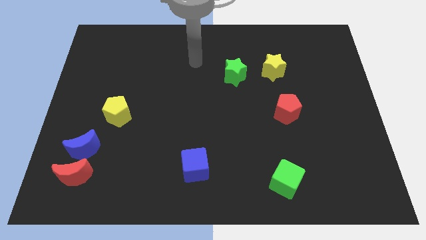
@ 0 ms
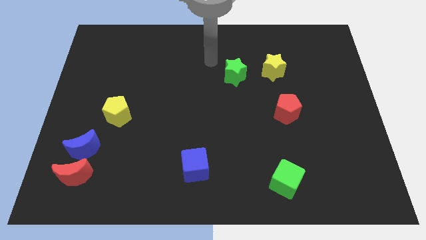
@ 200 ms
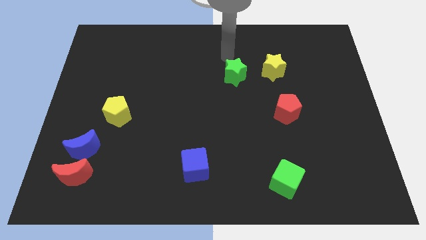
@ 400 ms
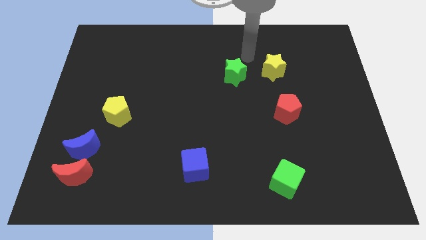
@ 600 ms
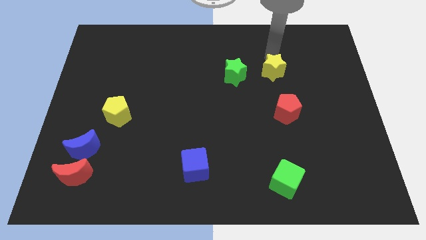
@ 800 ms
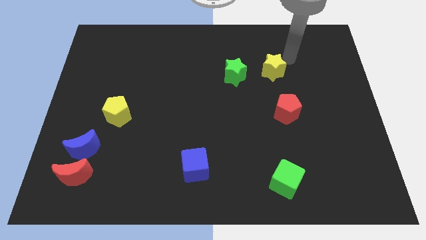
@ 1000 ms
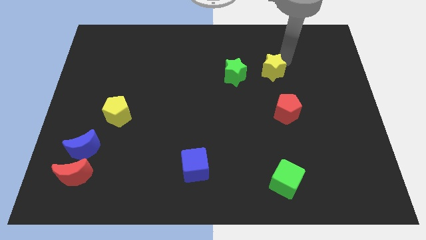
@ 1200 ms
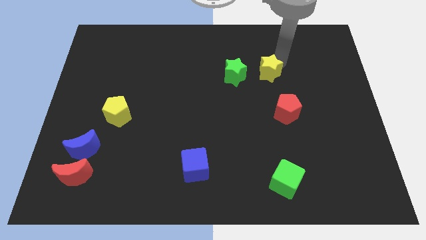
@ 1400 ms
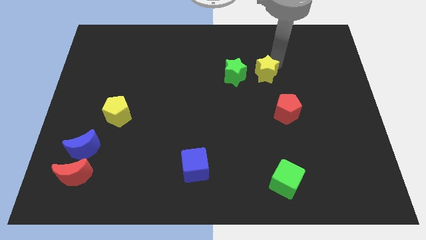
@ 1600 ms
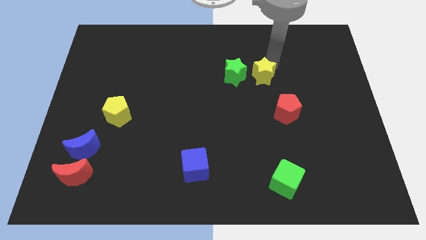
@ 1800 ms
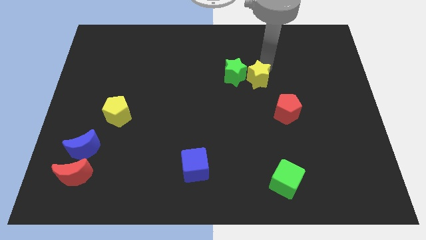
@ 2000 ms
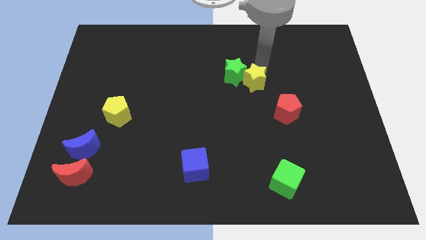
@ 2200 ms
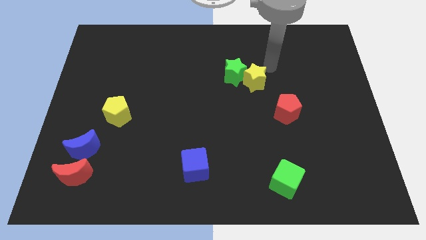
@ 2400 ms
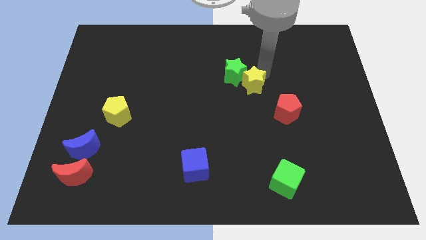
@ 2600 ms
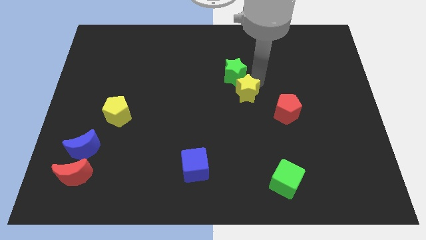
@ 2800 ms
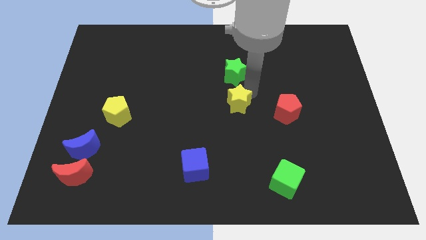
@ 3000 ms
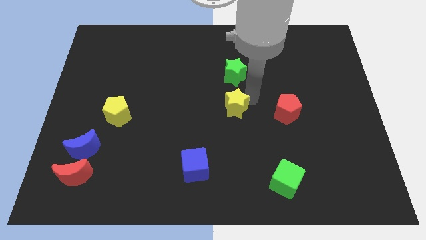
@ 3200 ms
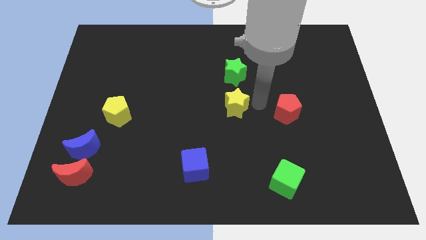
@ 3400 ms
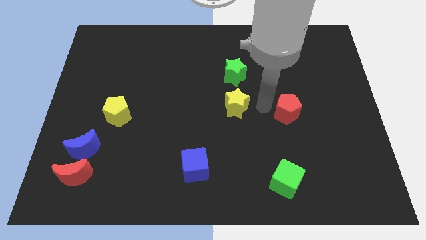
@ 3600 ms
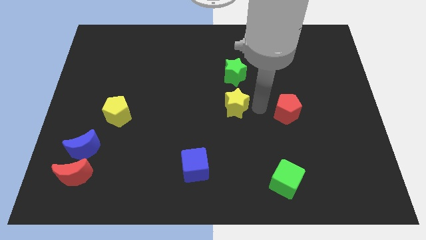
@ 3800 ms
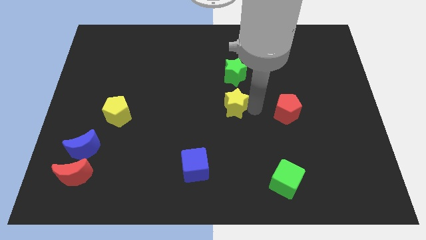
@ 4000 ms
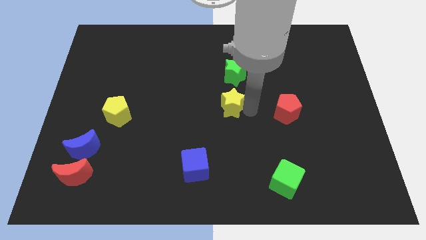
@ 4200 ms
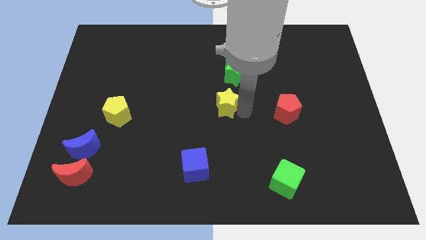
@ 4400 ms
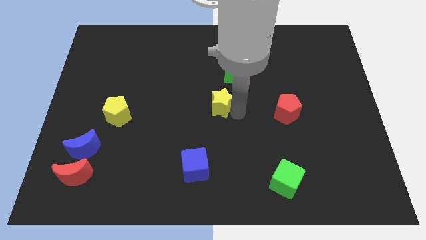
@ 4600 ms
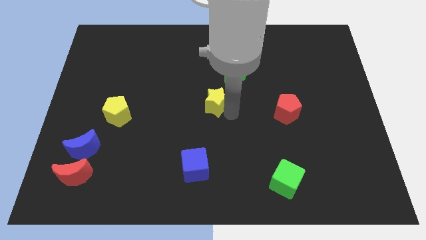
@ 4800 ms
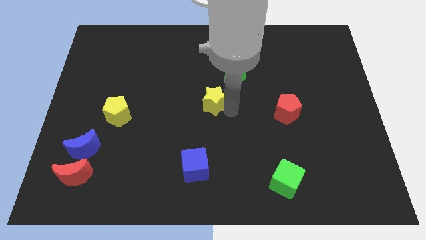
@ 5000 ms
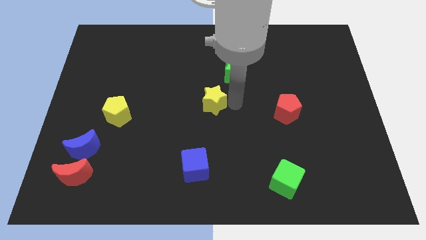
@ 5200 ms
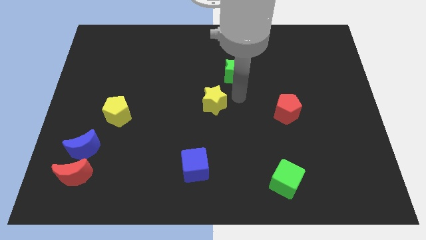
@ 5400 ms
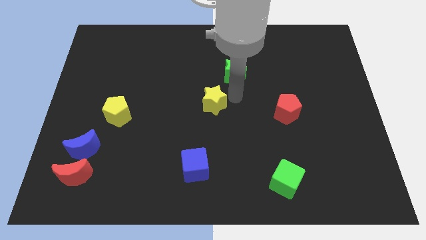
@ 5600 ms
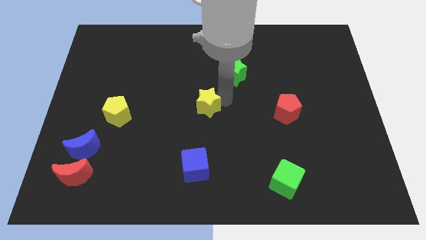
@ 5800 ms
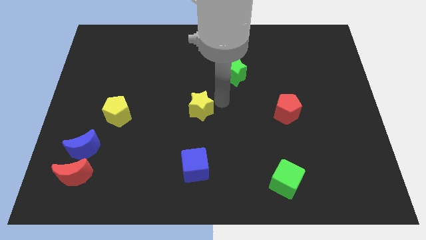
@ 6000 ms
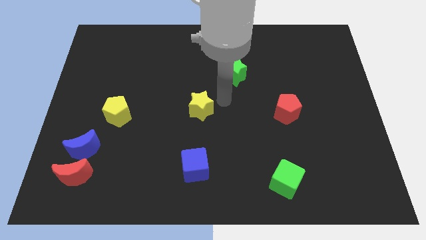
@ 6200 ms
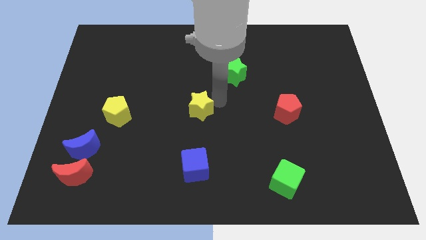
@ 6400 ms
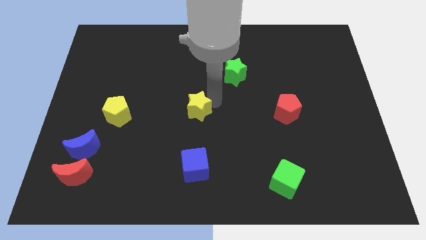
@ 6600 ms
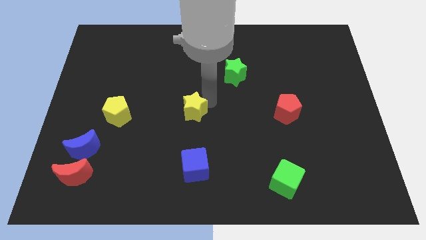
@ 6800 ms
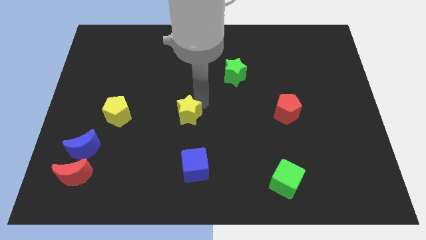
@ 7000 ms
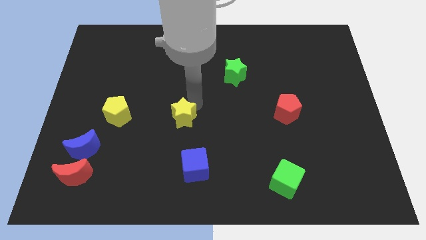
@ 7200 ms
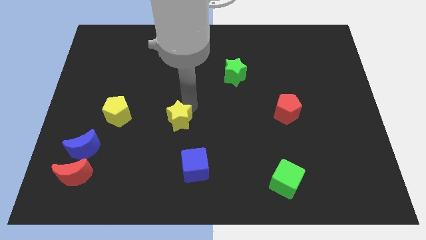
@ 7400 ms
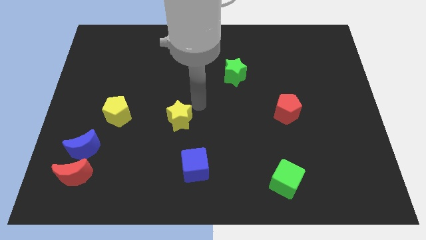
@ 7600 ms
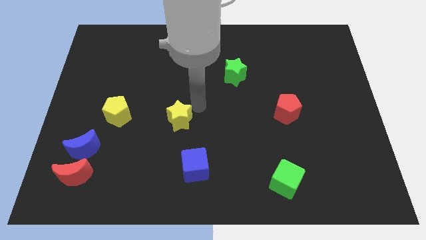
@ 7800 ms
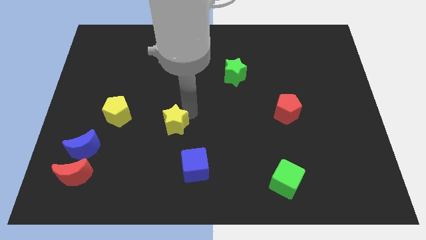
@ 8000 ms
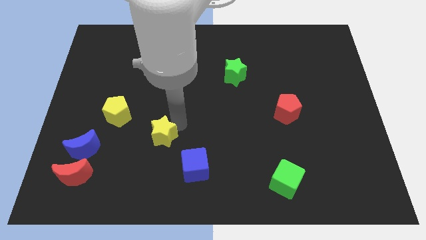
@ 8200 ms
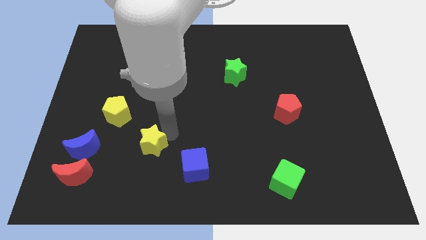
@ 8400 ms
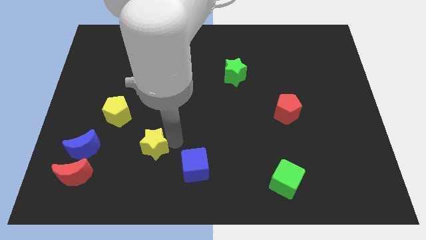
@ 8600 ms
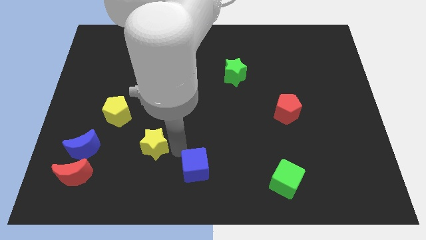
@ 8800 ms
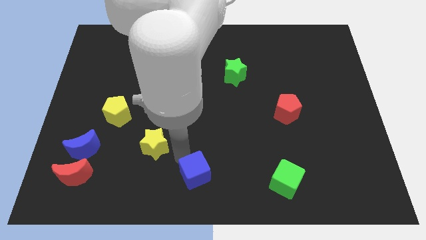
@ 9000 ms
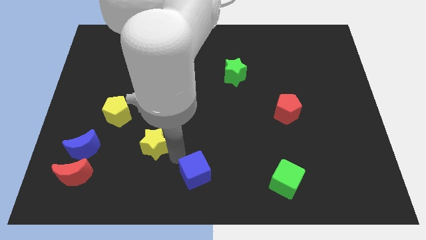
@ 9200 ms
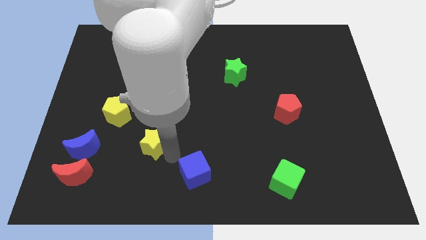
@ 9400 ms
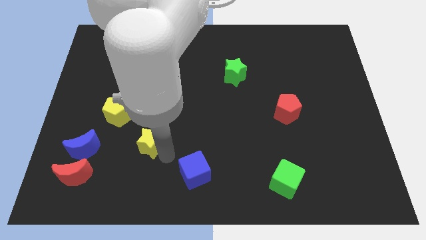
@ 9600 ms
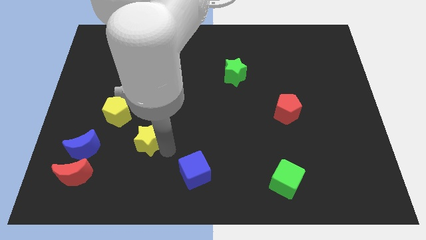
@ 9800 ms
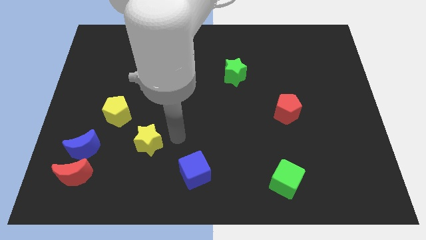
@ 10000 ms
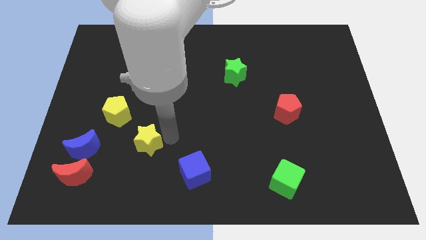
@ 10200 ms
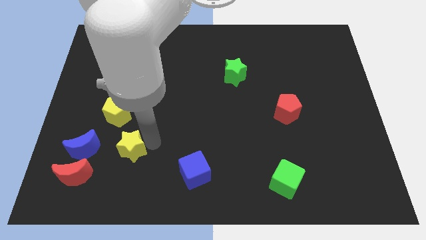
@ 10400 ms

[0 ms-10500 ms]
slide the yellow star below the yellow pentagon

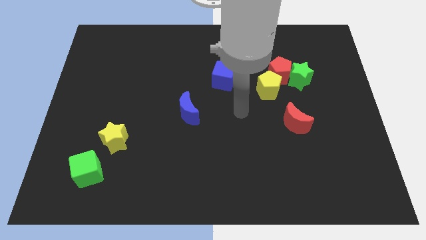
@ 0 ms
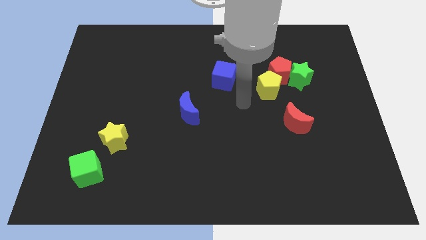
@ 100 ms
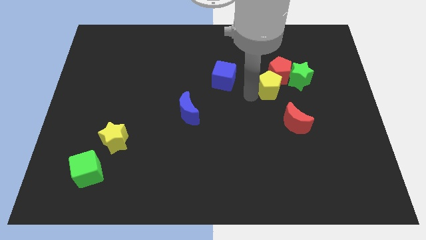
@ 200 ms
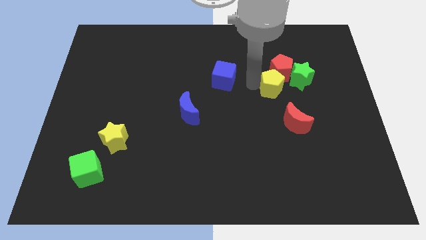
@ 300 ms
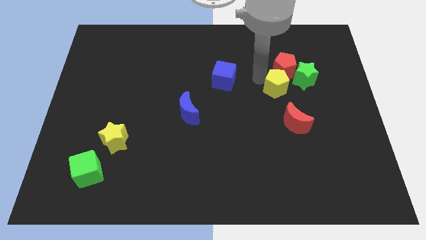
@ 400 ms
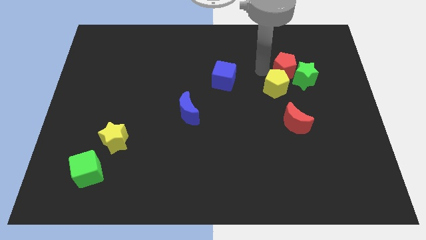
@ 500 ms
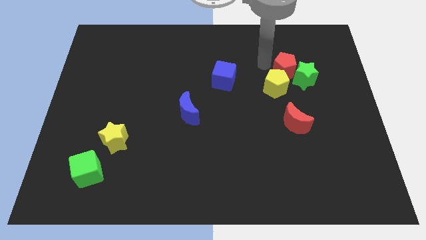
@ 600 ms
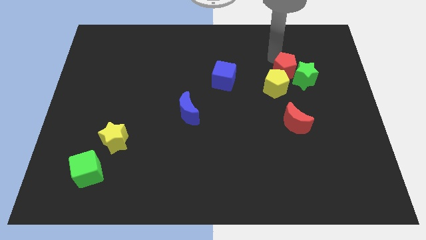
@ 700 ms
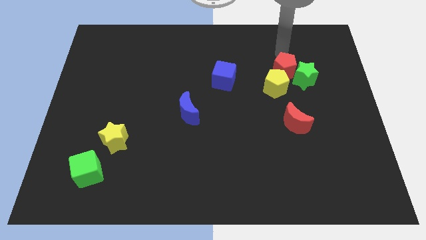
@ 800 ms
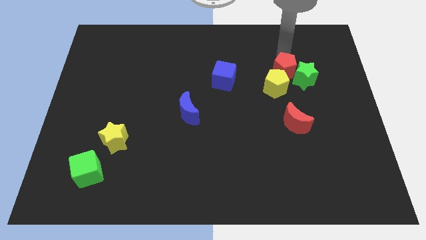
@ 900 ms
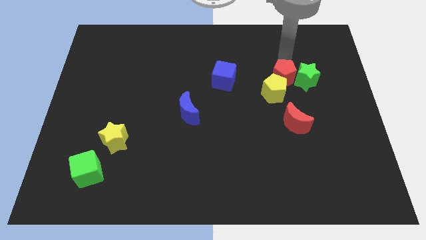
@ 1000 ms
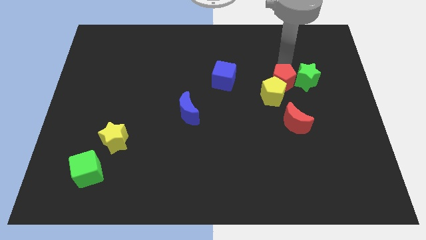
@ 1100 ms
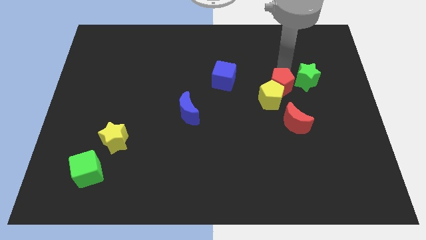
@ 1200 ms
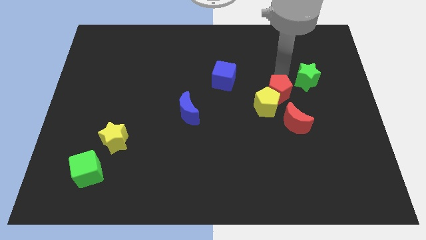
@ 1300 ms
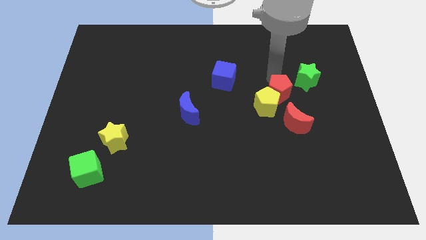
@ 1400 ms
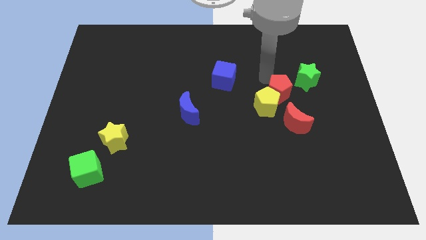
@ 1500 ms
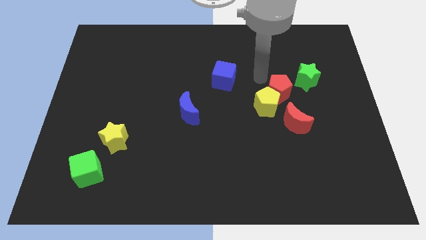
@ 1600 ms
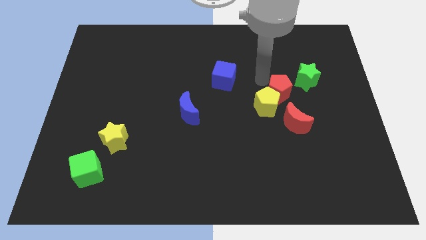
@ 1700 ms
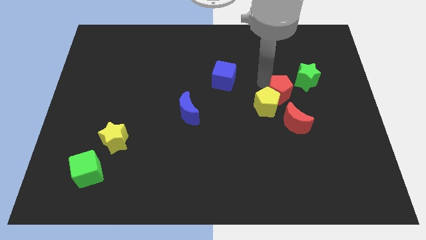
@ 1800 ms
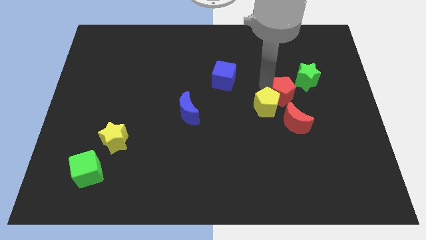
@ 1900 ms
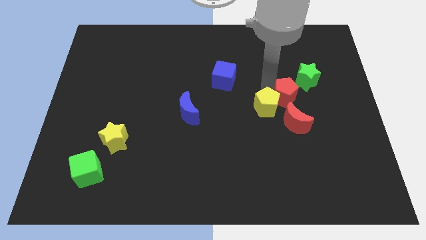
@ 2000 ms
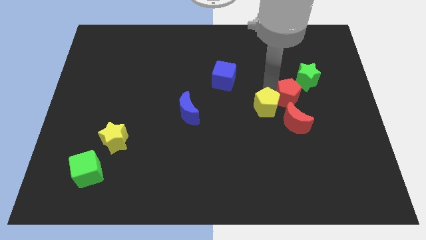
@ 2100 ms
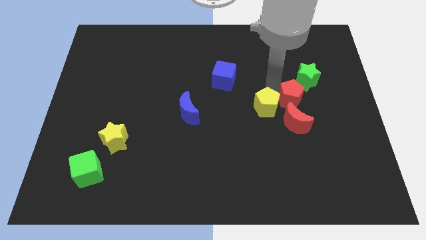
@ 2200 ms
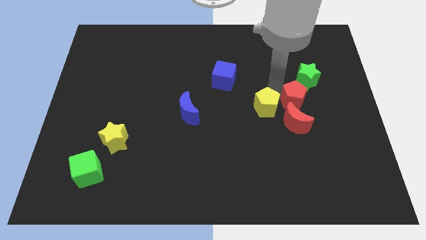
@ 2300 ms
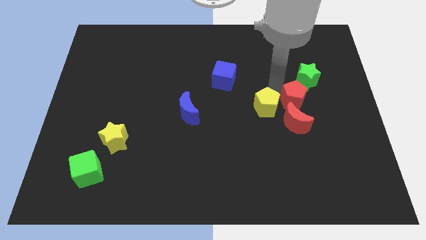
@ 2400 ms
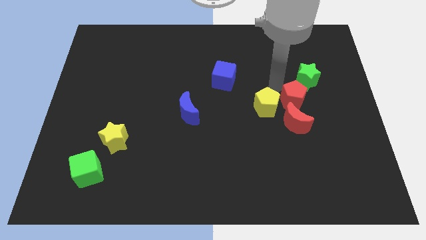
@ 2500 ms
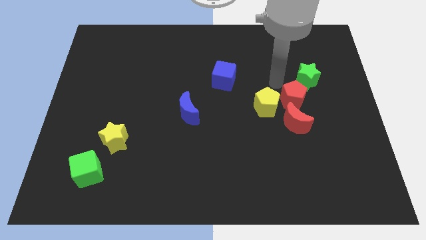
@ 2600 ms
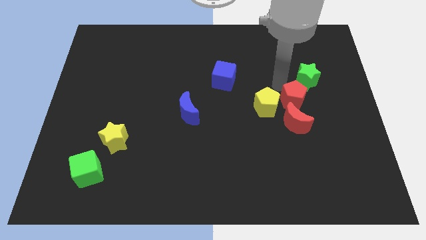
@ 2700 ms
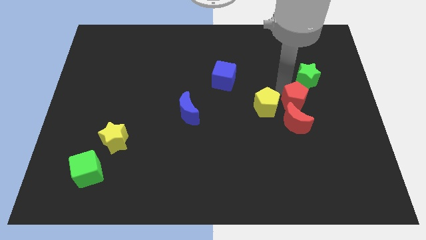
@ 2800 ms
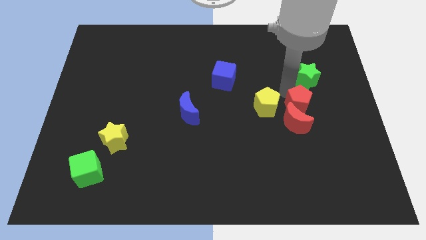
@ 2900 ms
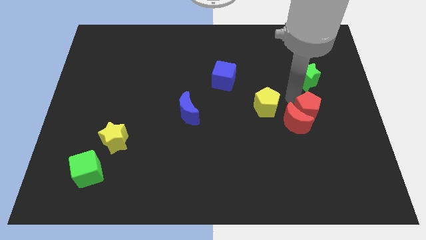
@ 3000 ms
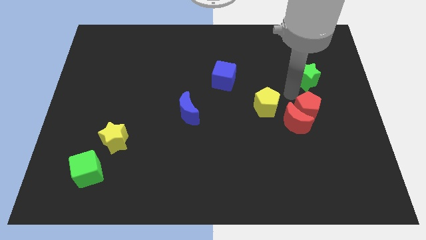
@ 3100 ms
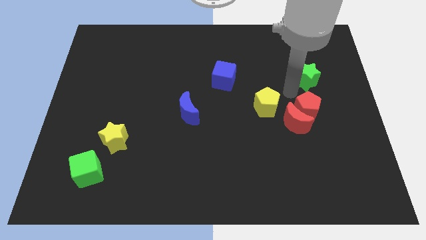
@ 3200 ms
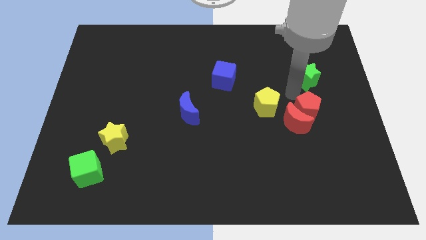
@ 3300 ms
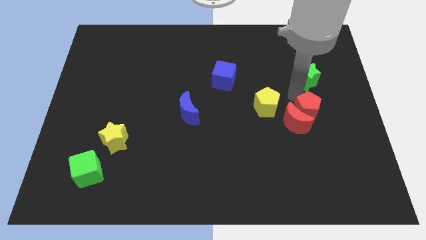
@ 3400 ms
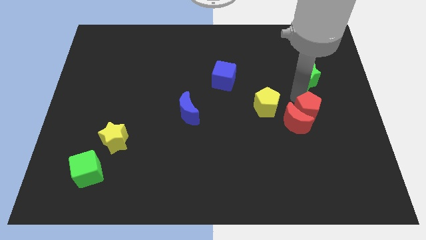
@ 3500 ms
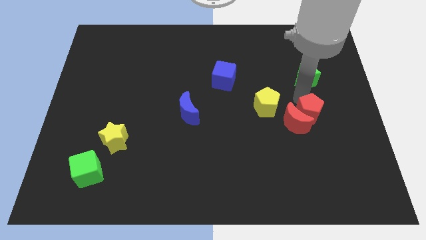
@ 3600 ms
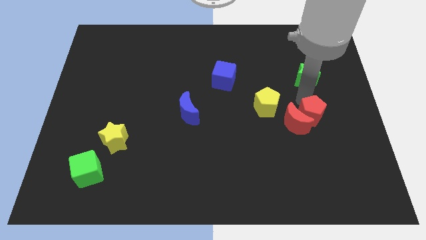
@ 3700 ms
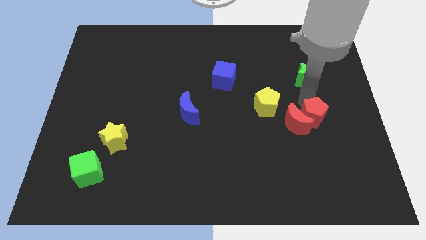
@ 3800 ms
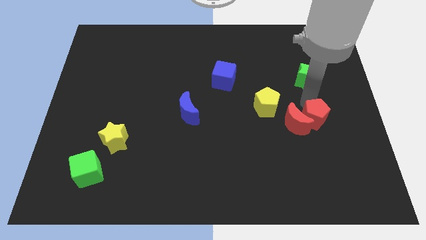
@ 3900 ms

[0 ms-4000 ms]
push the red pentagon to the bottom right side of the red moon
